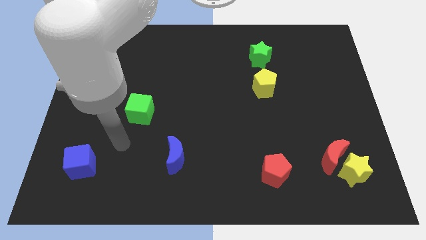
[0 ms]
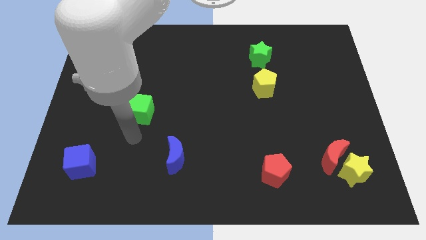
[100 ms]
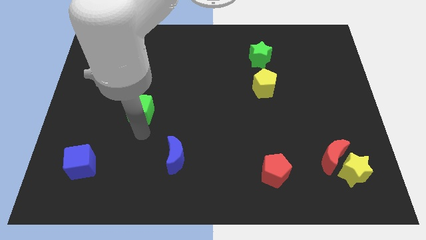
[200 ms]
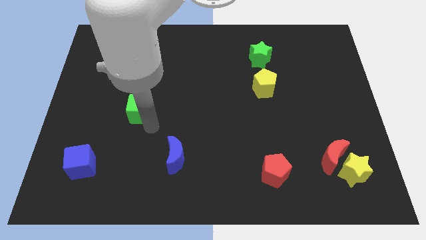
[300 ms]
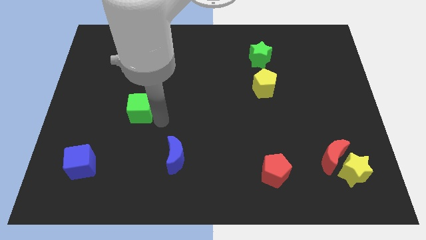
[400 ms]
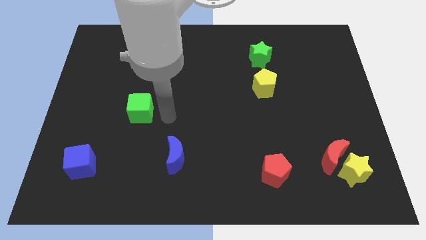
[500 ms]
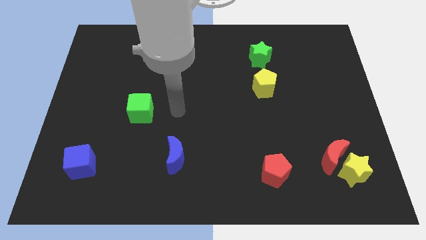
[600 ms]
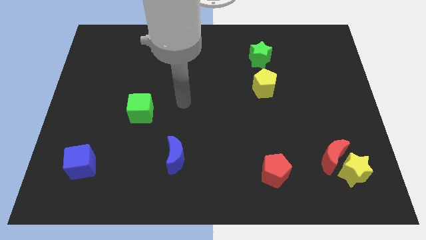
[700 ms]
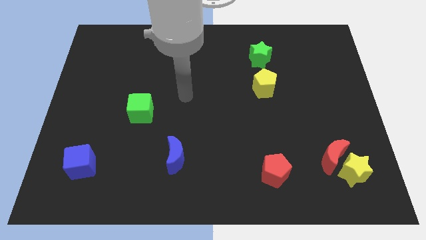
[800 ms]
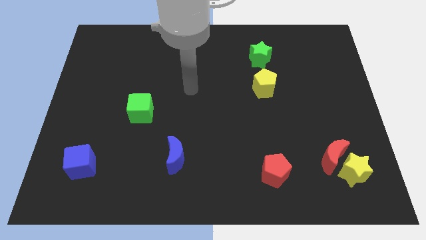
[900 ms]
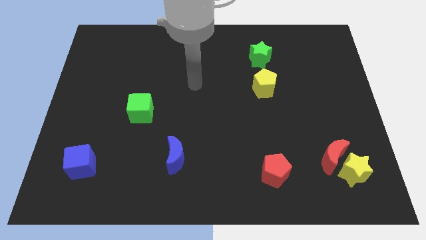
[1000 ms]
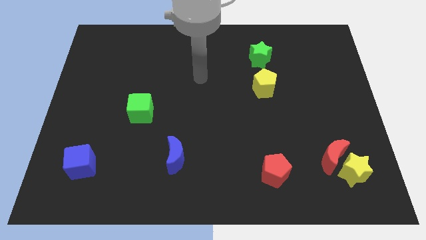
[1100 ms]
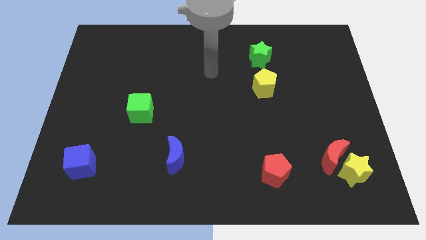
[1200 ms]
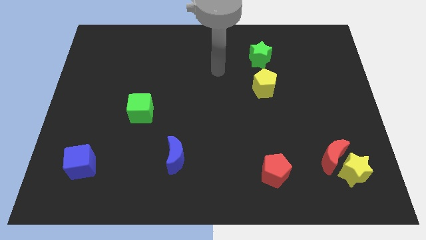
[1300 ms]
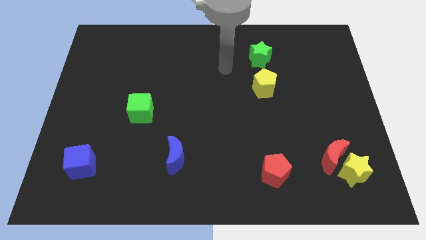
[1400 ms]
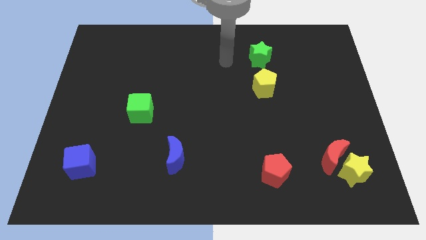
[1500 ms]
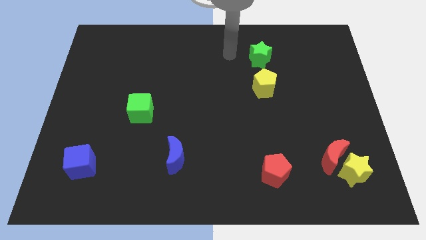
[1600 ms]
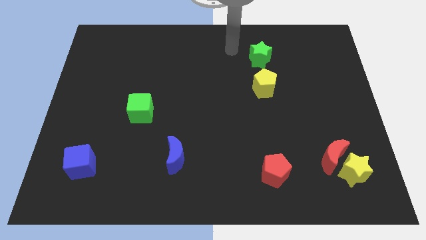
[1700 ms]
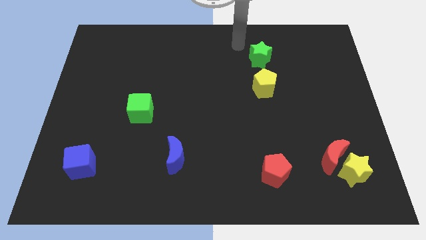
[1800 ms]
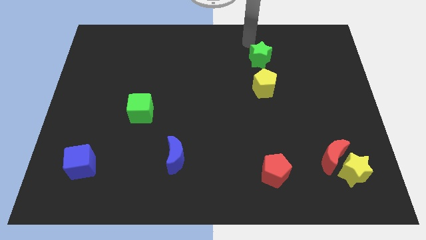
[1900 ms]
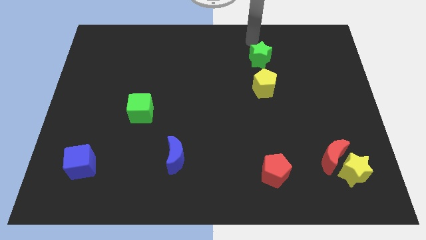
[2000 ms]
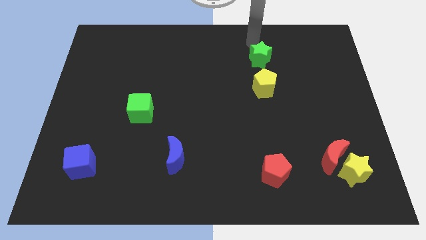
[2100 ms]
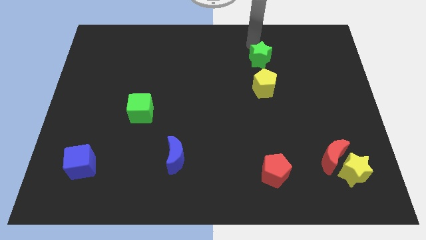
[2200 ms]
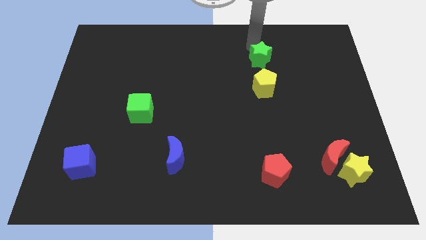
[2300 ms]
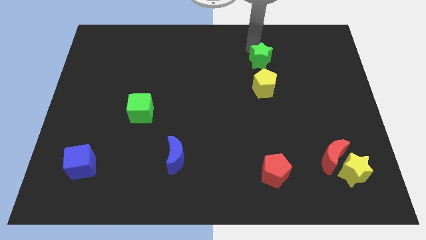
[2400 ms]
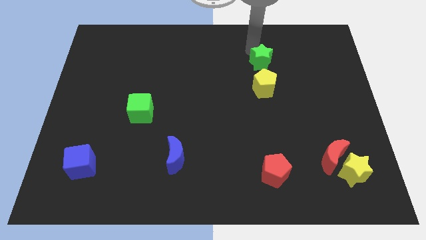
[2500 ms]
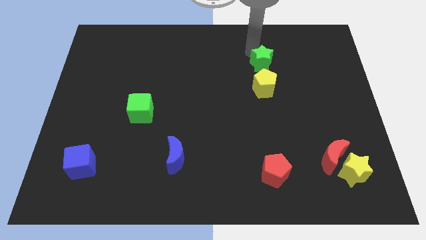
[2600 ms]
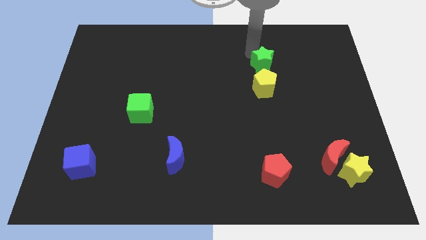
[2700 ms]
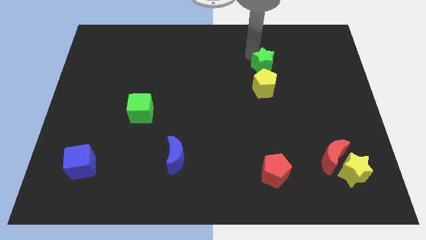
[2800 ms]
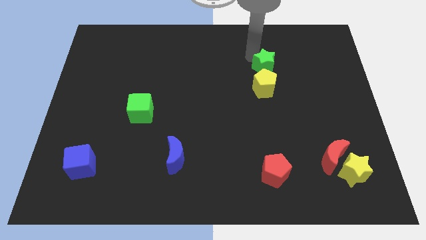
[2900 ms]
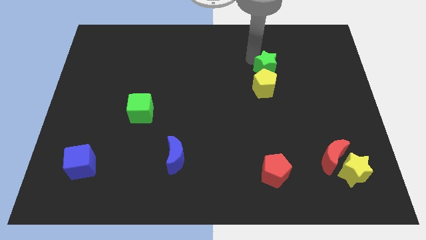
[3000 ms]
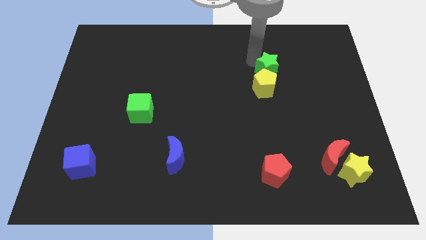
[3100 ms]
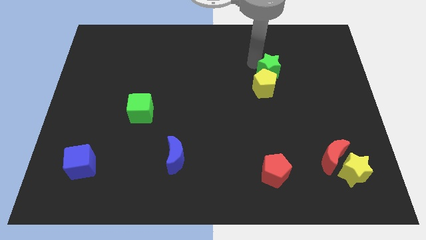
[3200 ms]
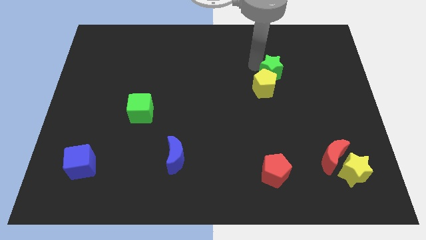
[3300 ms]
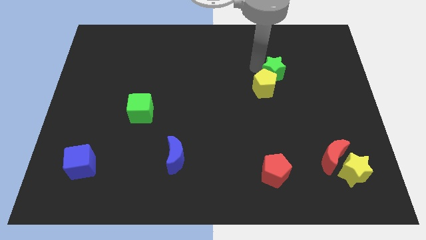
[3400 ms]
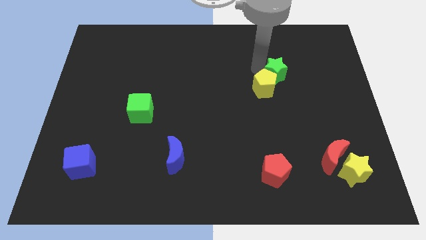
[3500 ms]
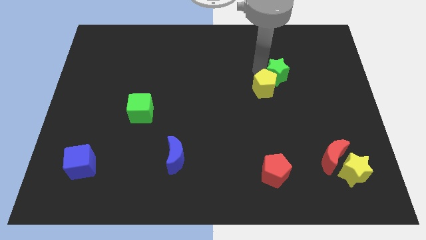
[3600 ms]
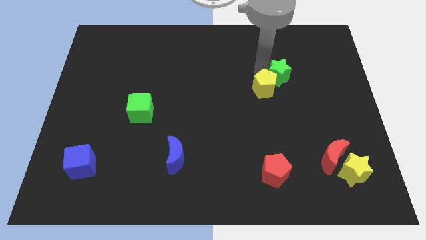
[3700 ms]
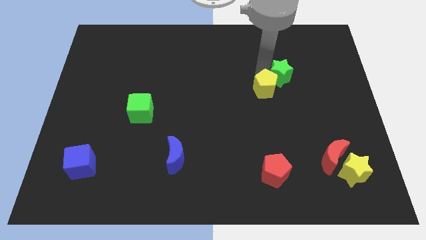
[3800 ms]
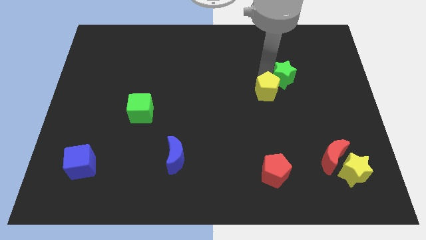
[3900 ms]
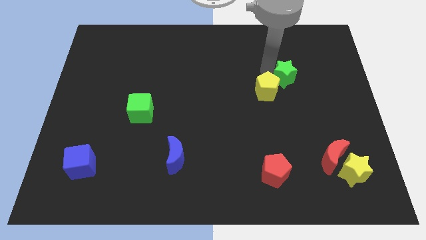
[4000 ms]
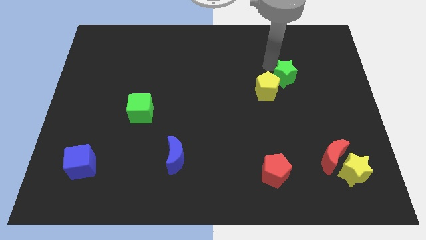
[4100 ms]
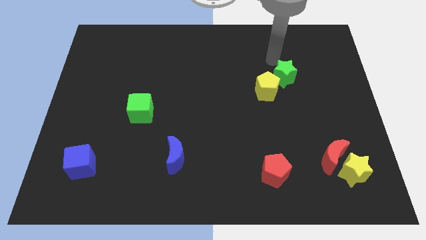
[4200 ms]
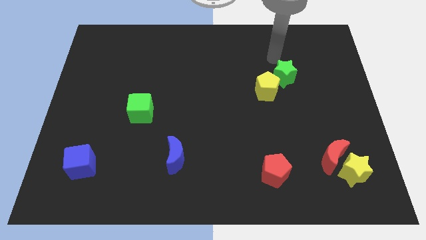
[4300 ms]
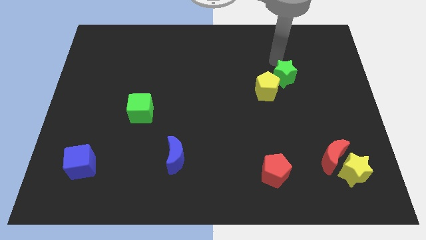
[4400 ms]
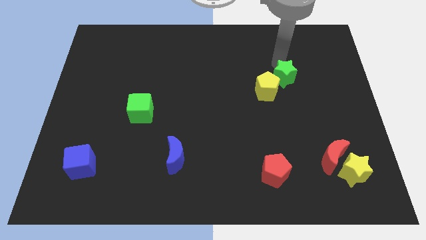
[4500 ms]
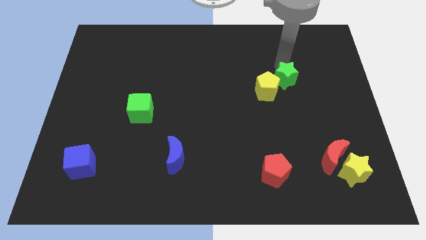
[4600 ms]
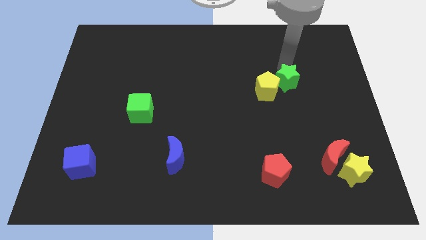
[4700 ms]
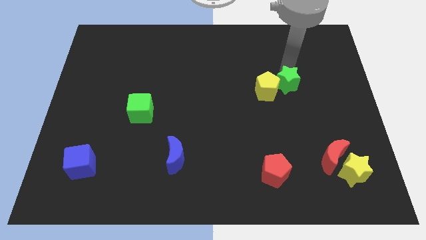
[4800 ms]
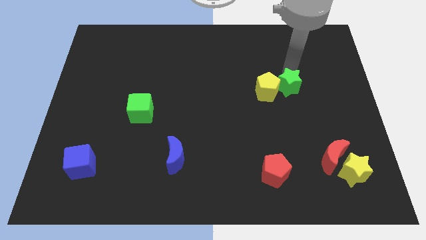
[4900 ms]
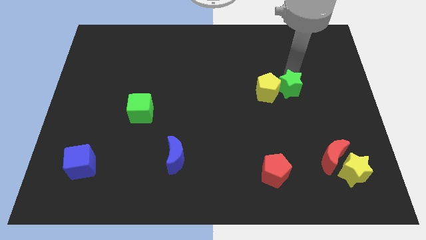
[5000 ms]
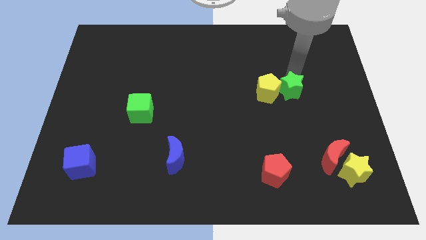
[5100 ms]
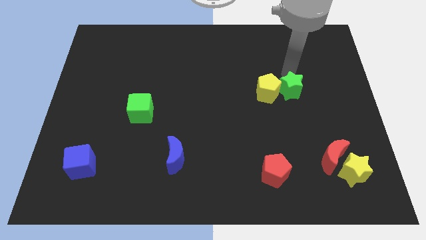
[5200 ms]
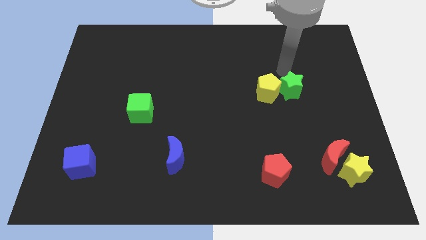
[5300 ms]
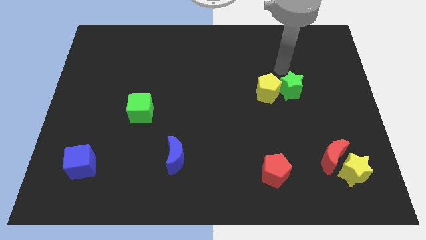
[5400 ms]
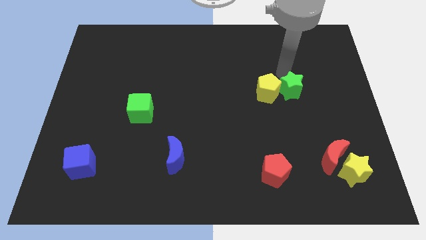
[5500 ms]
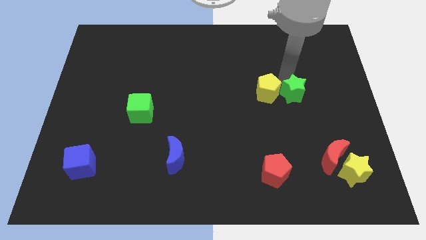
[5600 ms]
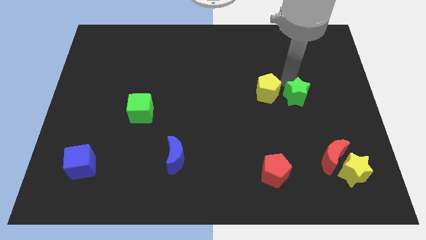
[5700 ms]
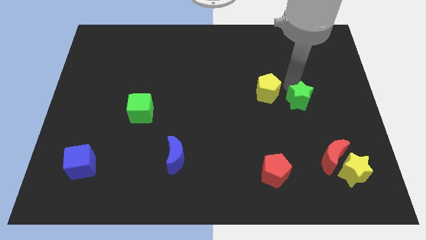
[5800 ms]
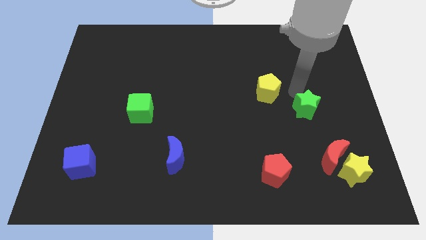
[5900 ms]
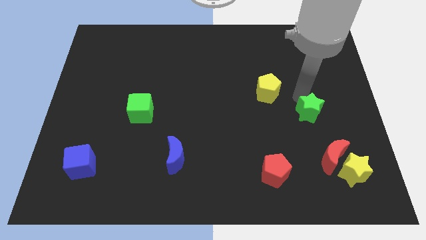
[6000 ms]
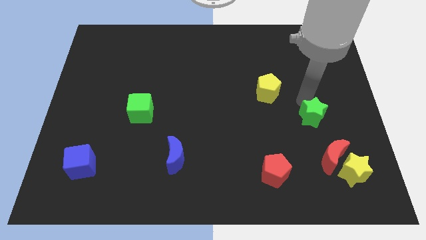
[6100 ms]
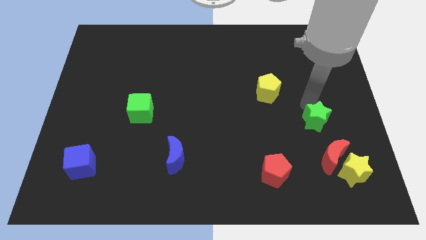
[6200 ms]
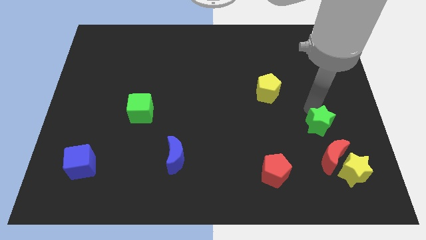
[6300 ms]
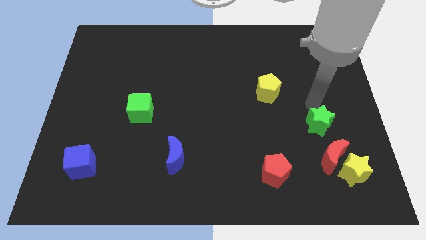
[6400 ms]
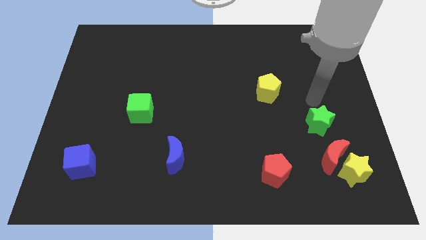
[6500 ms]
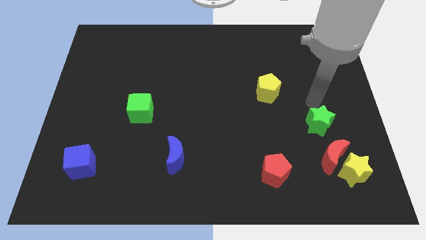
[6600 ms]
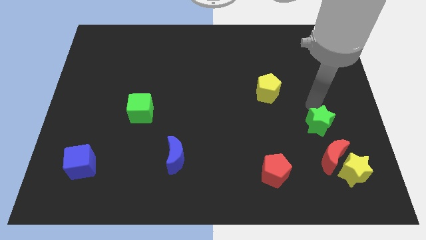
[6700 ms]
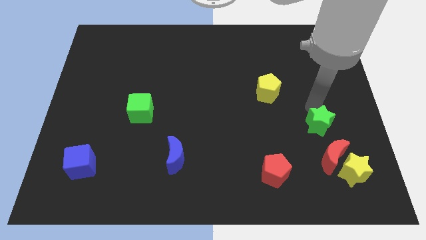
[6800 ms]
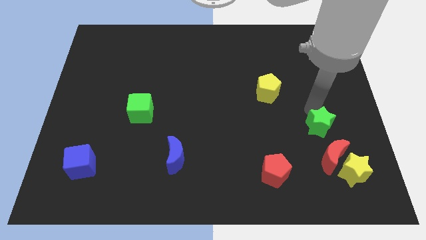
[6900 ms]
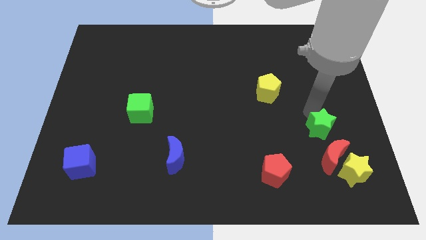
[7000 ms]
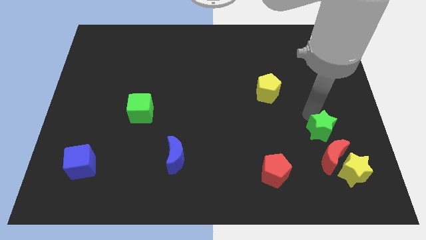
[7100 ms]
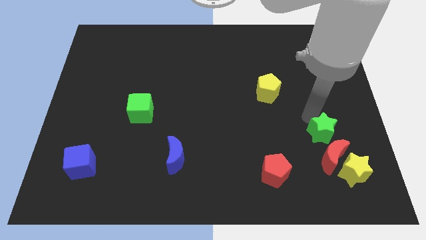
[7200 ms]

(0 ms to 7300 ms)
move the green star to the top left side of the yellow star
